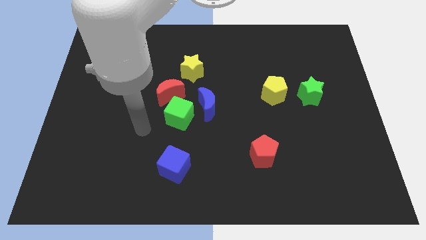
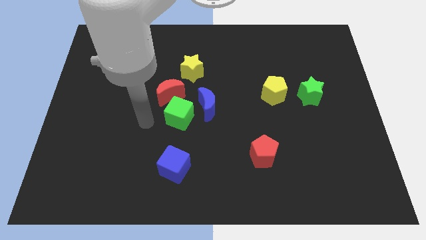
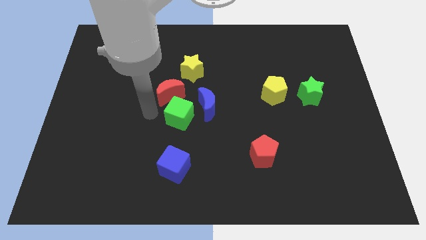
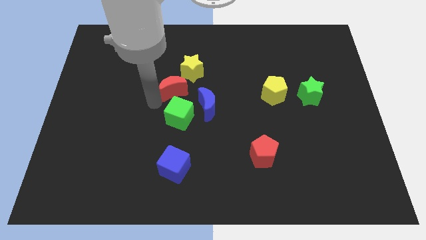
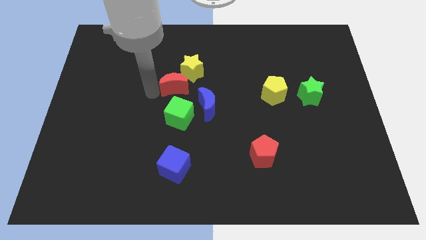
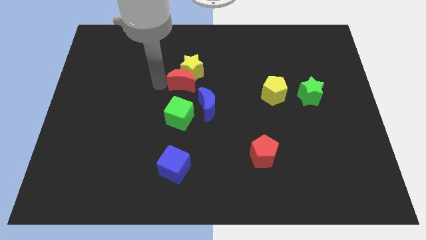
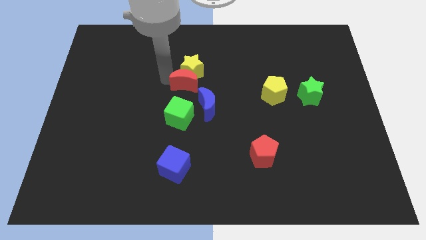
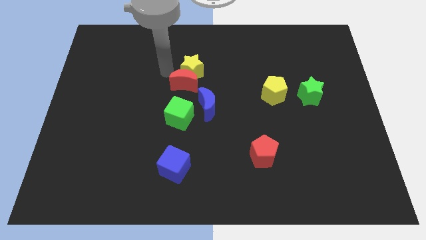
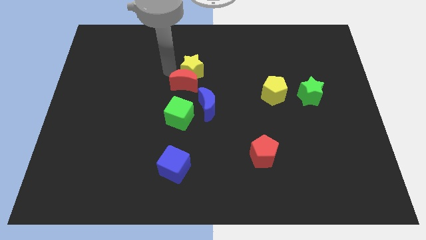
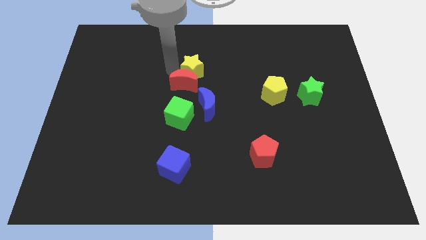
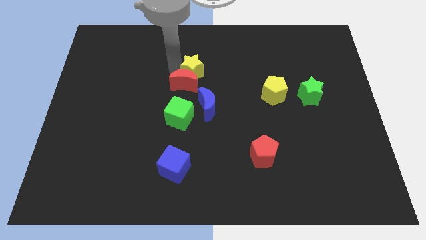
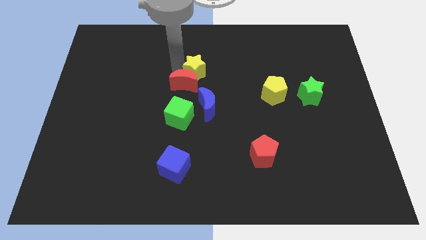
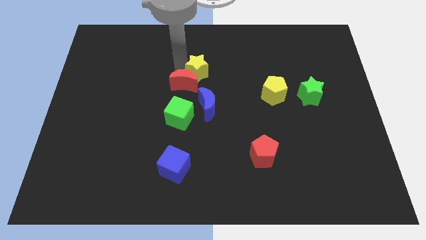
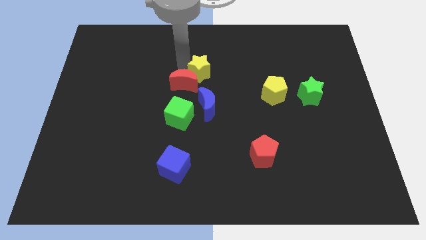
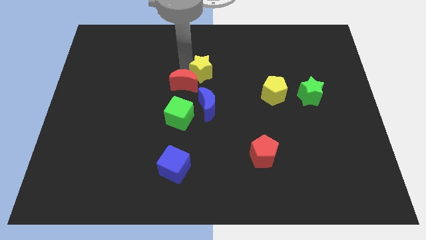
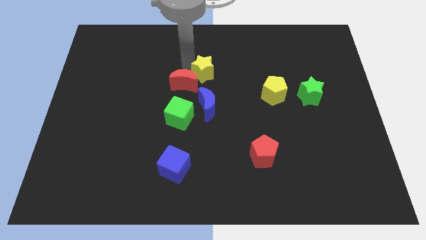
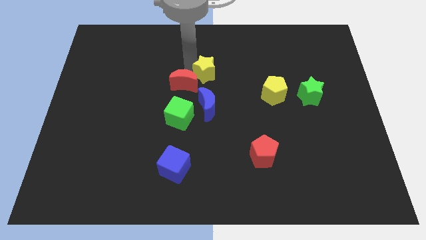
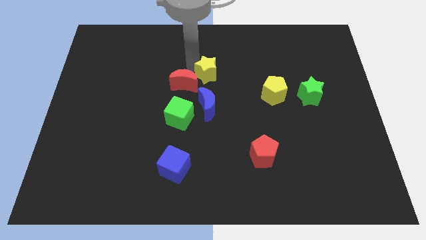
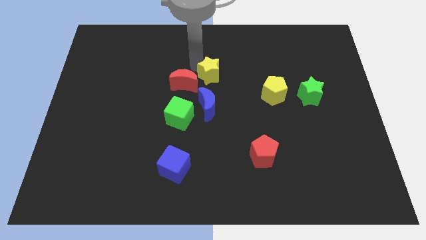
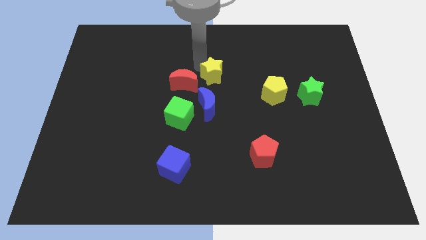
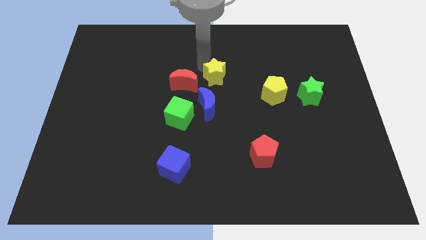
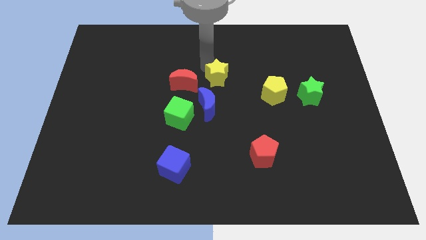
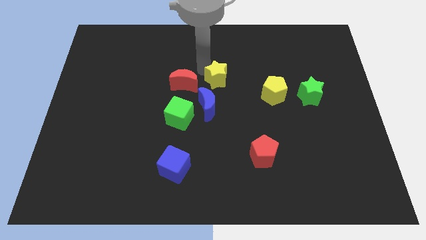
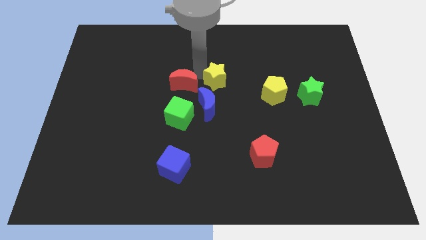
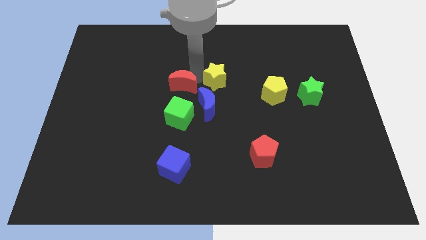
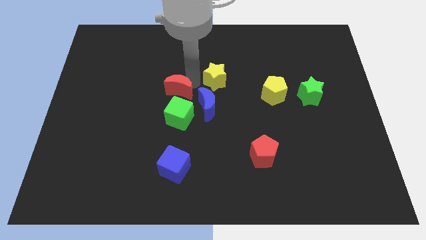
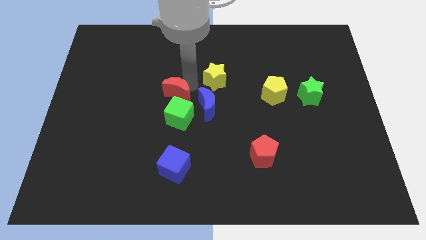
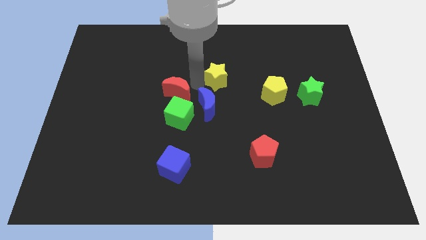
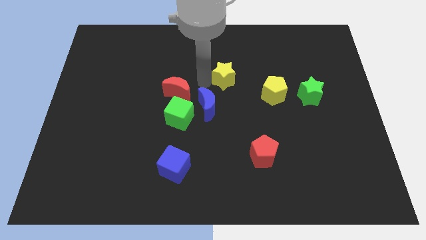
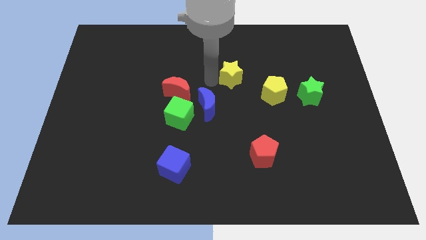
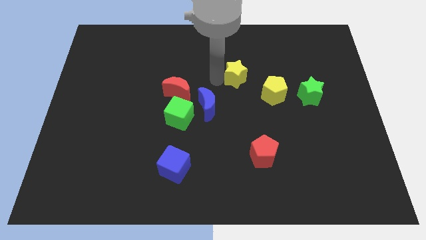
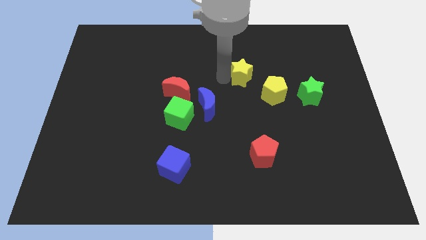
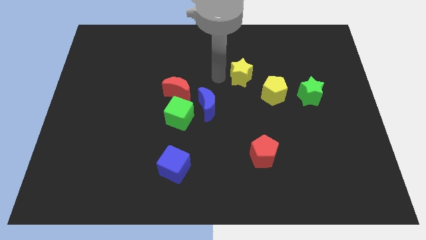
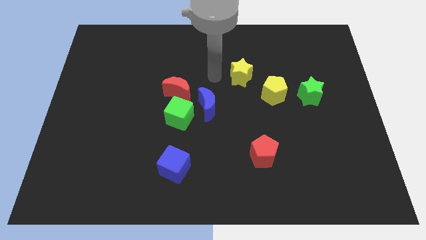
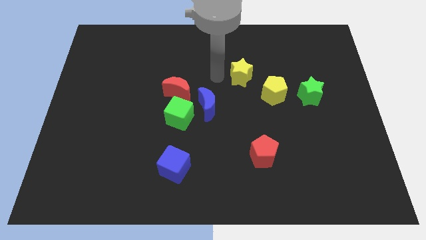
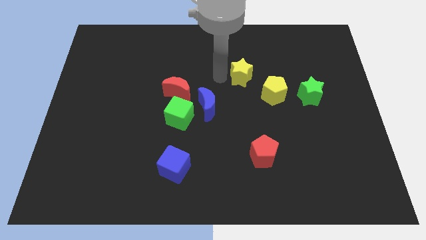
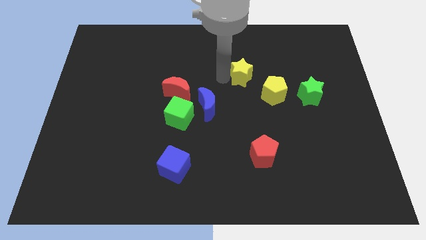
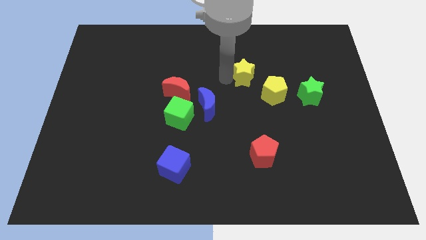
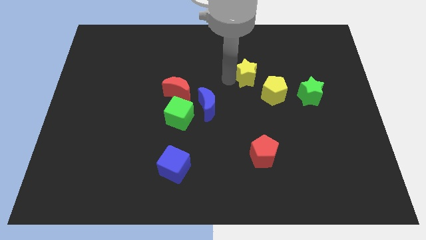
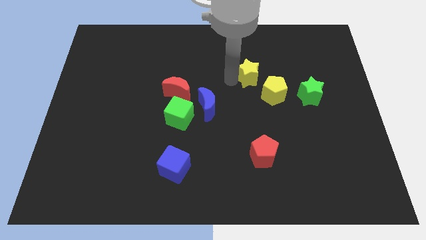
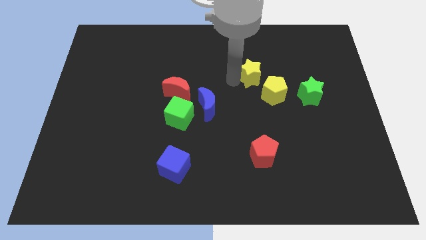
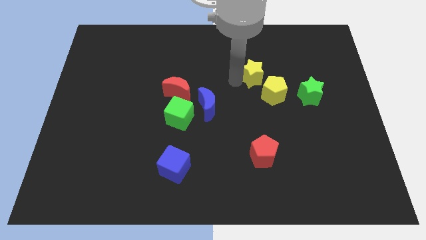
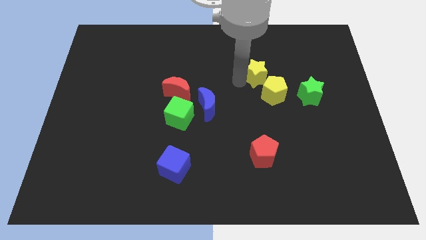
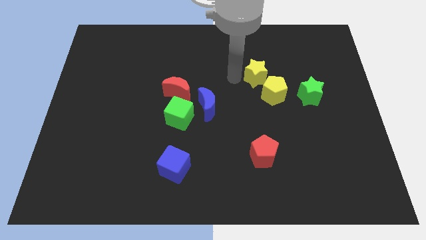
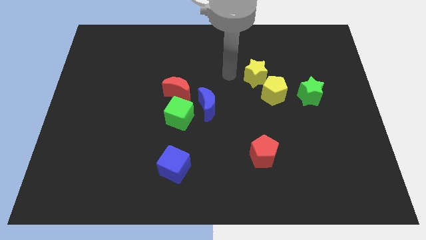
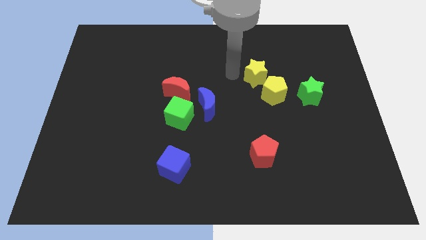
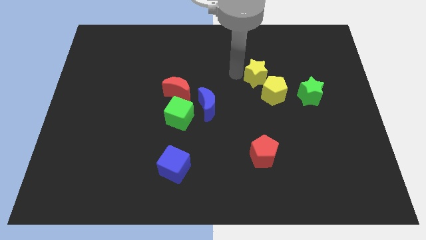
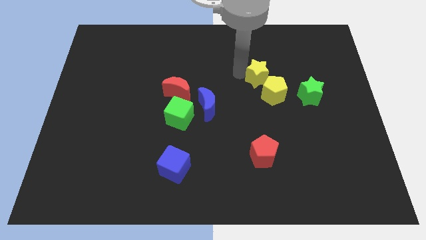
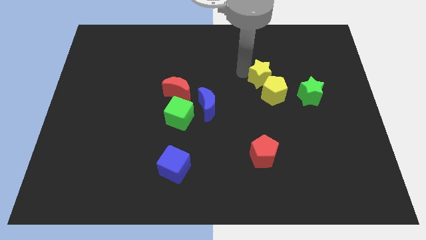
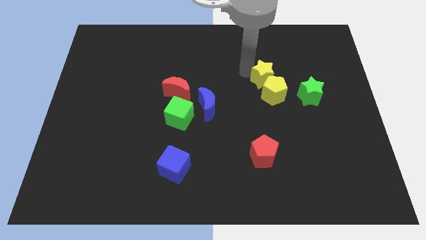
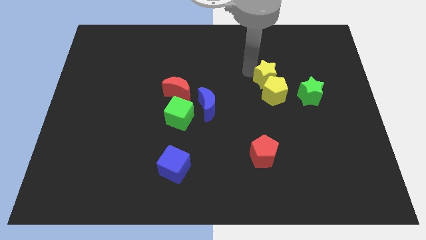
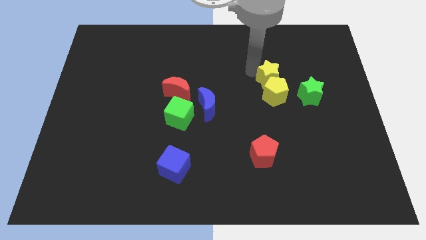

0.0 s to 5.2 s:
push the yellow star to the top left of the green star

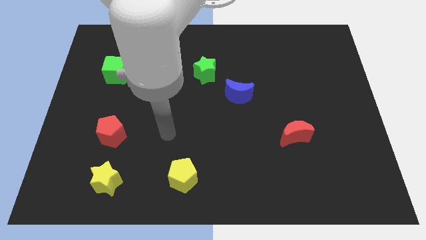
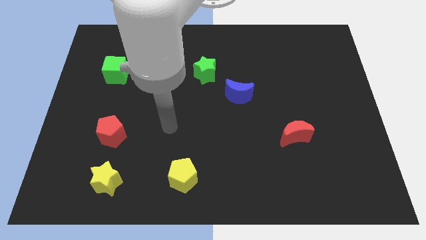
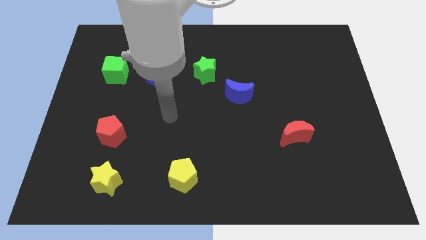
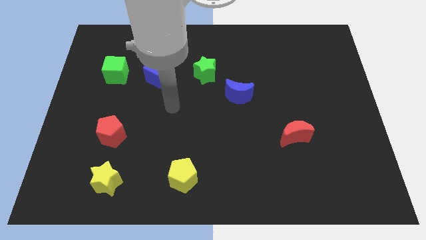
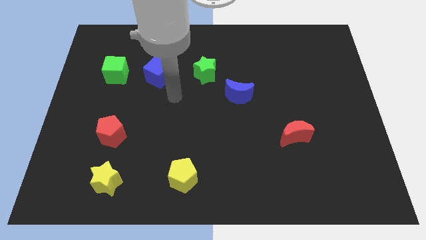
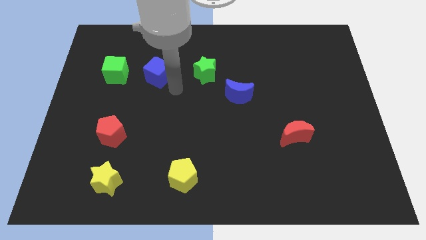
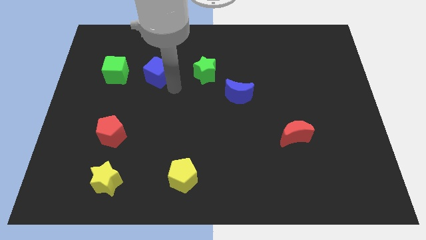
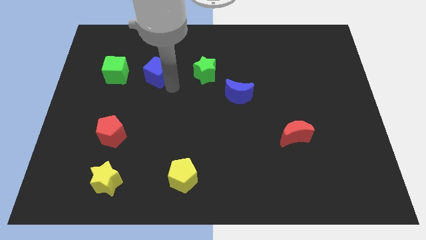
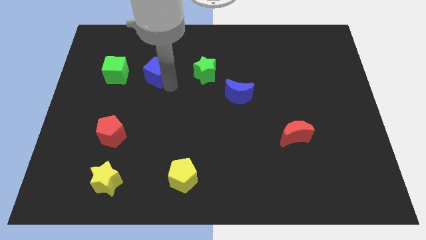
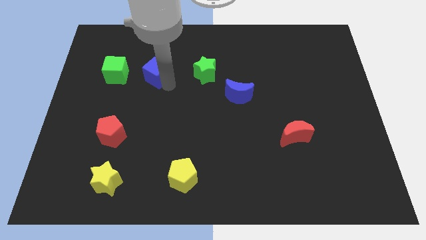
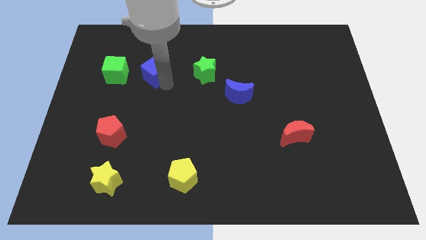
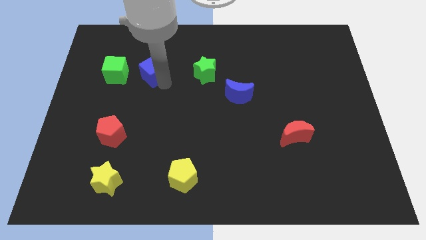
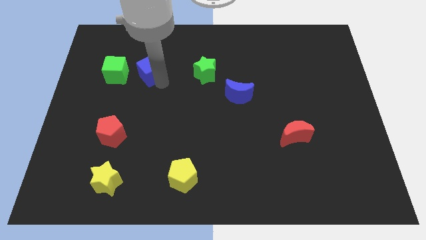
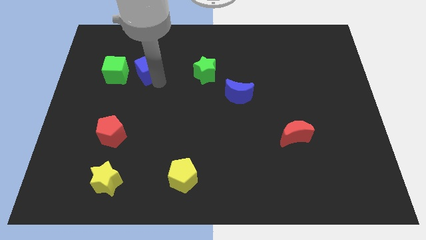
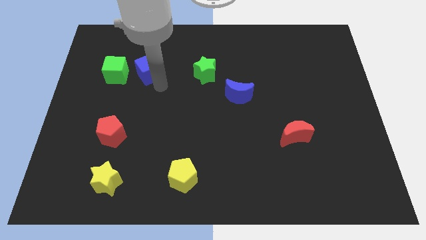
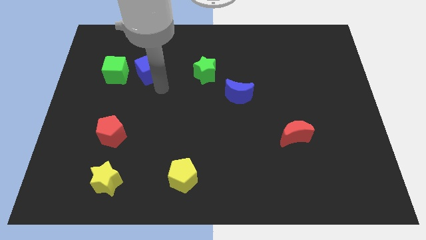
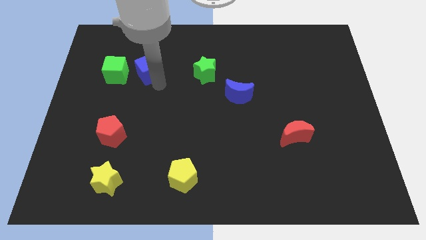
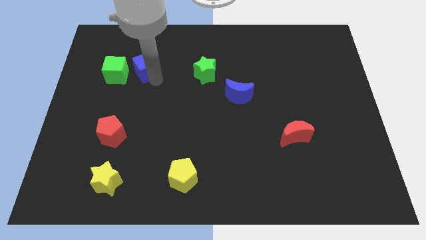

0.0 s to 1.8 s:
move the blue cube diagonally up and to the right of the green cube

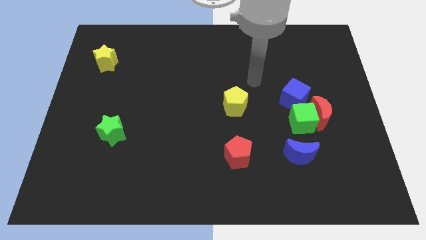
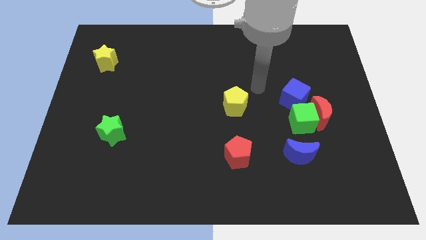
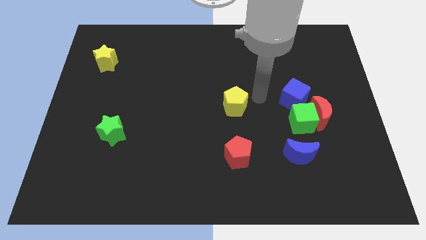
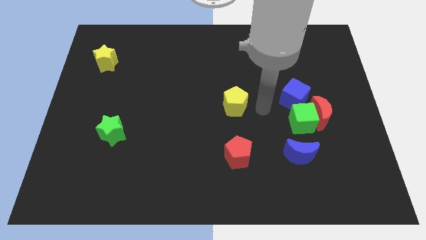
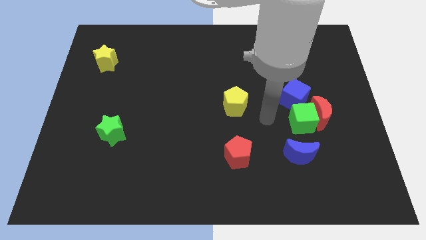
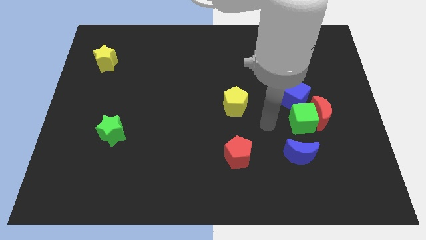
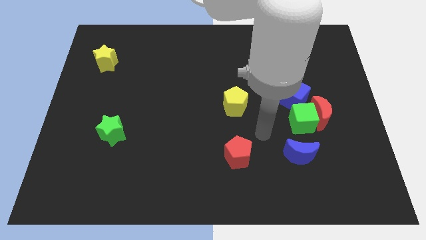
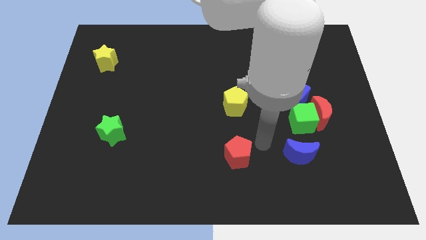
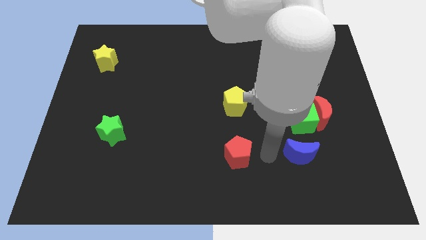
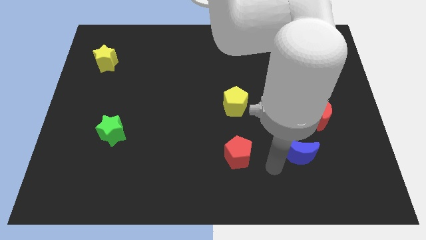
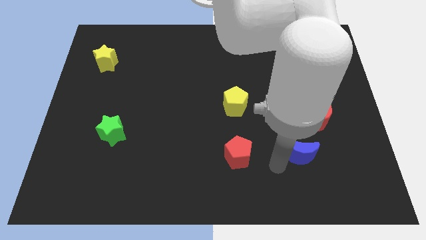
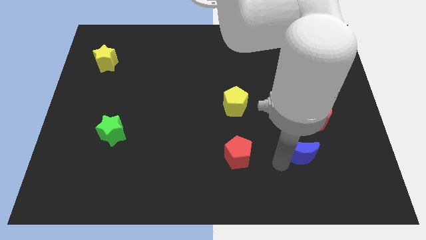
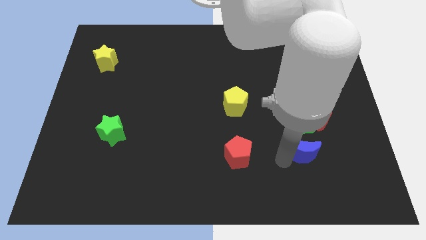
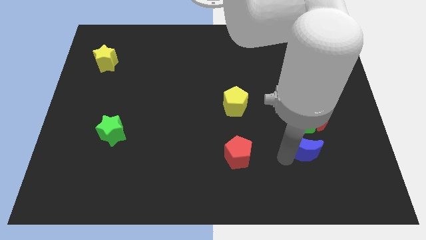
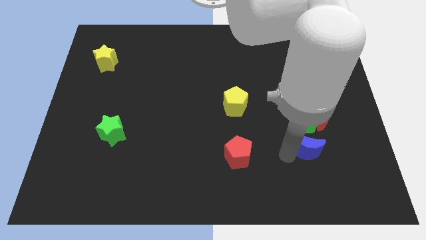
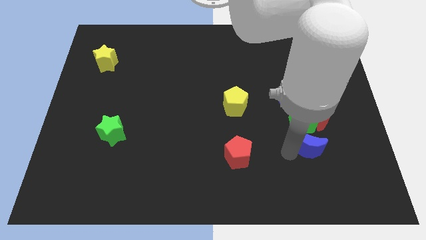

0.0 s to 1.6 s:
slide the blue moon to the bottom right of the green cube
